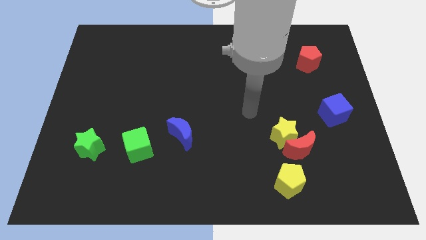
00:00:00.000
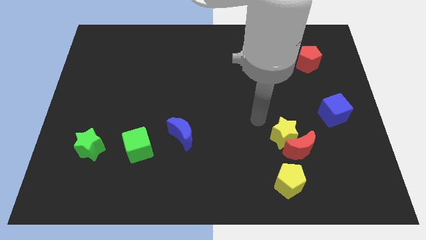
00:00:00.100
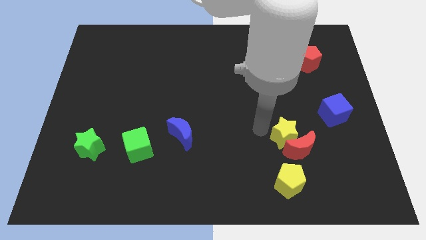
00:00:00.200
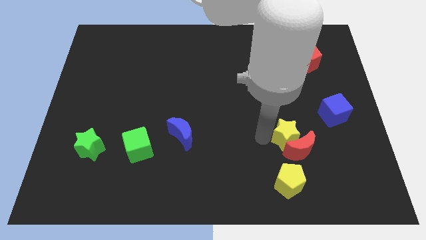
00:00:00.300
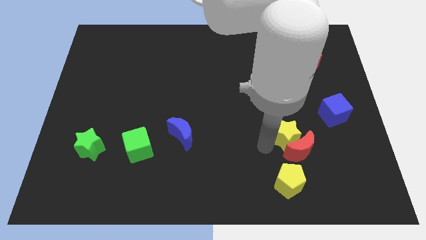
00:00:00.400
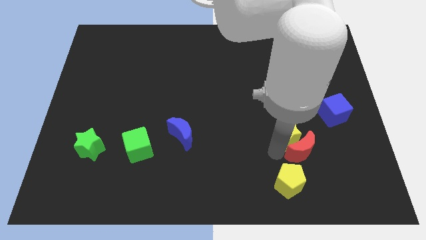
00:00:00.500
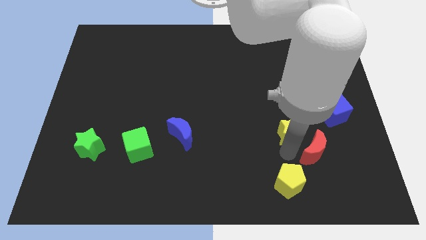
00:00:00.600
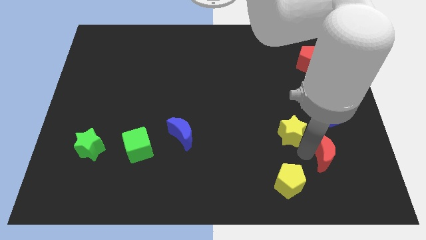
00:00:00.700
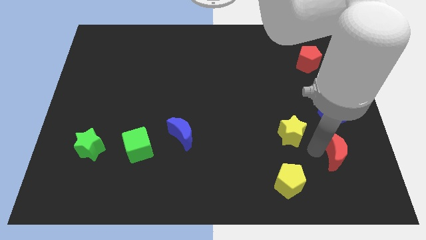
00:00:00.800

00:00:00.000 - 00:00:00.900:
separate the yellow star from the red moon

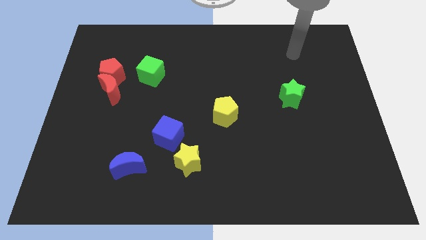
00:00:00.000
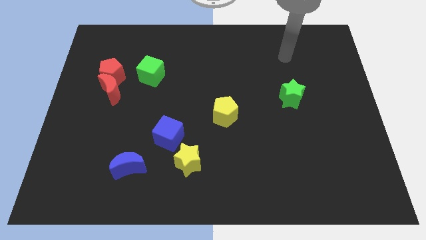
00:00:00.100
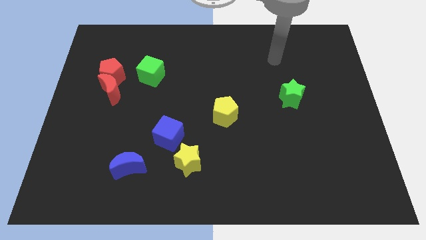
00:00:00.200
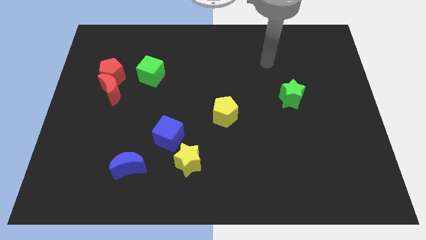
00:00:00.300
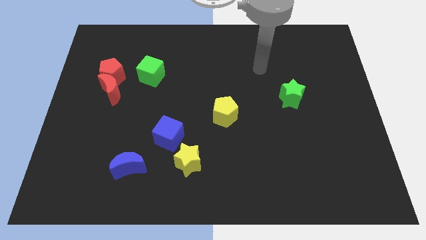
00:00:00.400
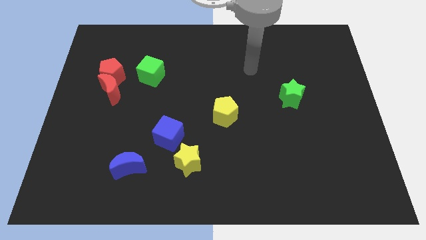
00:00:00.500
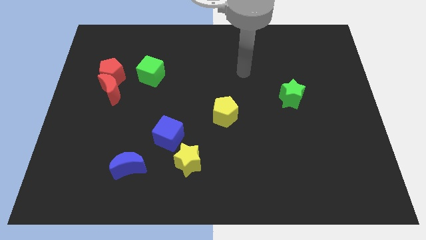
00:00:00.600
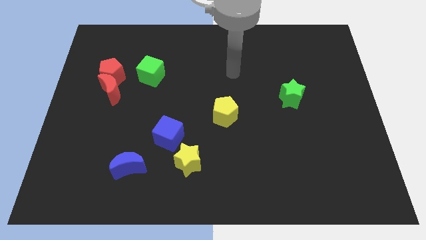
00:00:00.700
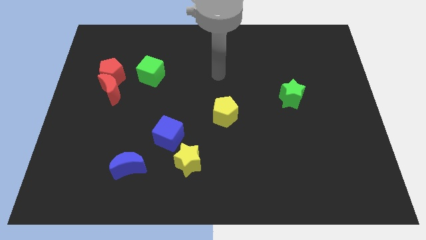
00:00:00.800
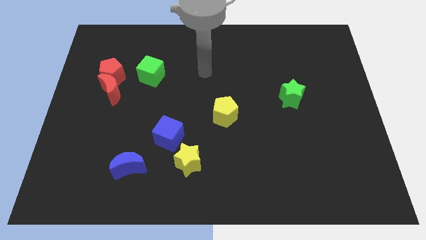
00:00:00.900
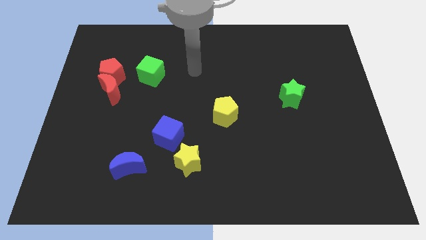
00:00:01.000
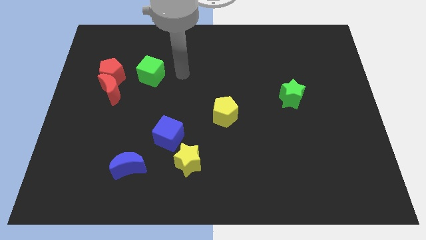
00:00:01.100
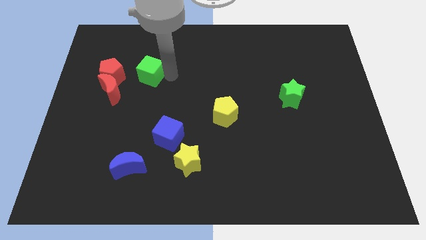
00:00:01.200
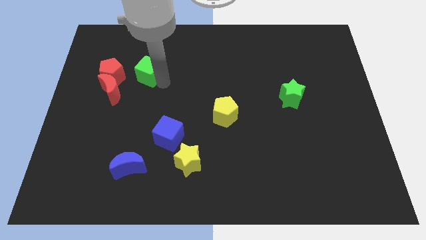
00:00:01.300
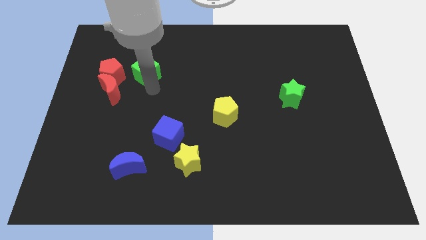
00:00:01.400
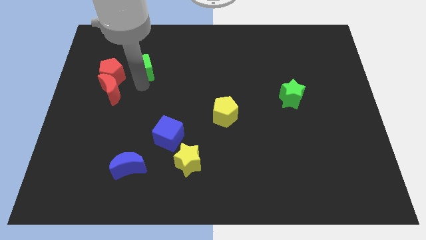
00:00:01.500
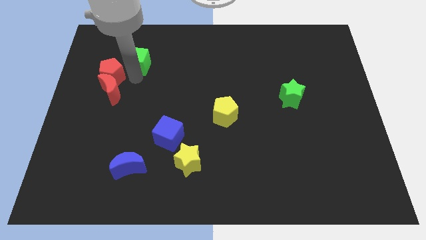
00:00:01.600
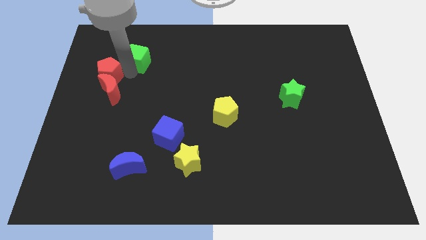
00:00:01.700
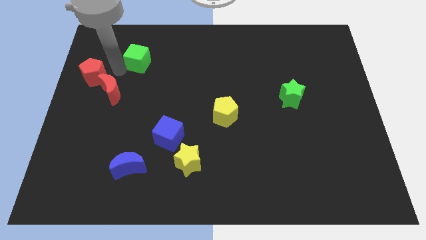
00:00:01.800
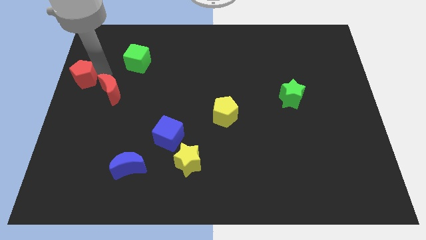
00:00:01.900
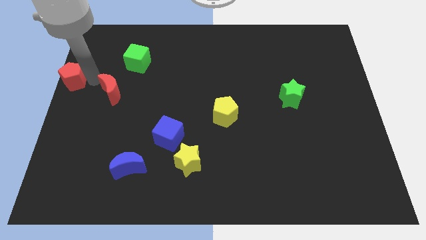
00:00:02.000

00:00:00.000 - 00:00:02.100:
separate the red moon from the red pentagon

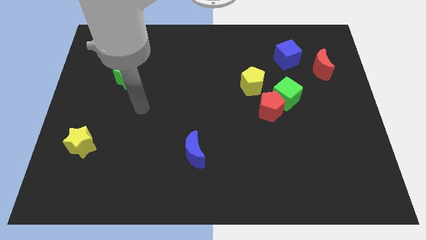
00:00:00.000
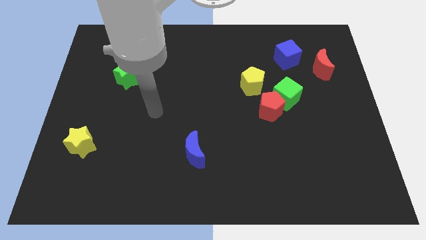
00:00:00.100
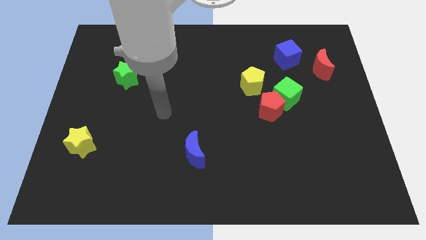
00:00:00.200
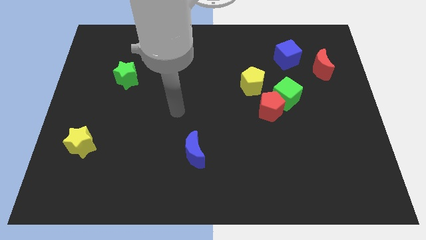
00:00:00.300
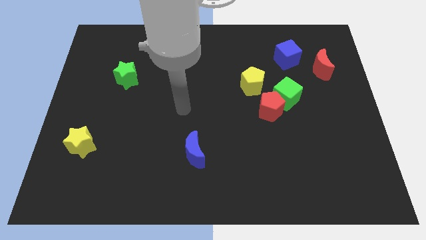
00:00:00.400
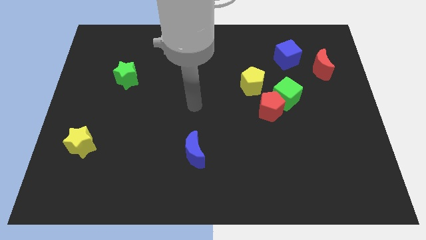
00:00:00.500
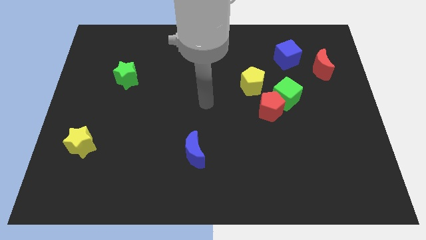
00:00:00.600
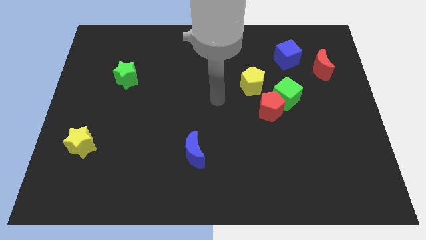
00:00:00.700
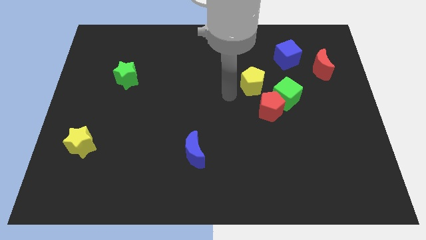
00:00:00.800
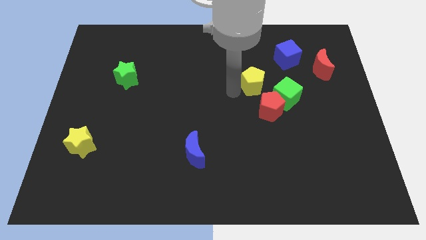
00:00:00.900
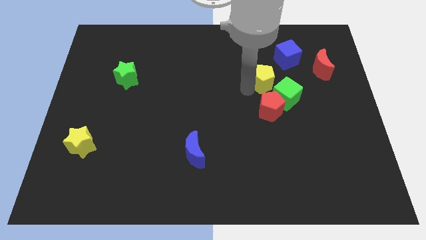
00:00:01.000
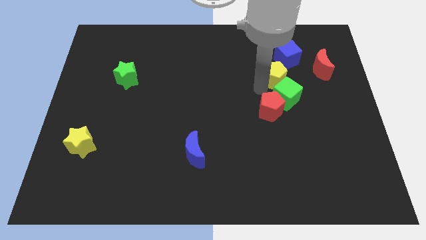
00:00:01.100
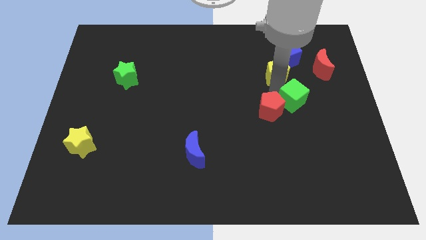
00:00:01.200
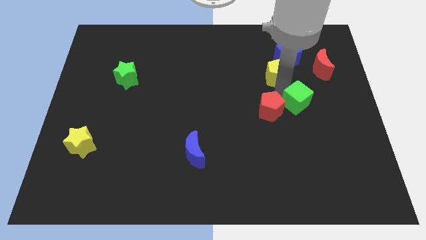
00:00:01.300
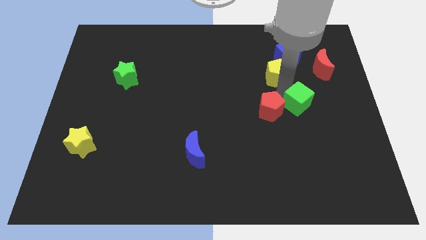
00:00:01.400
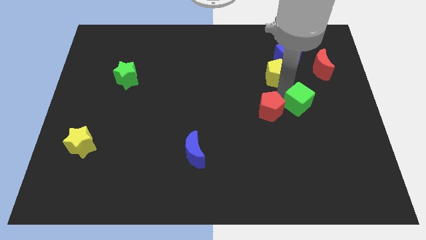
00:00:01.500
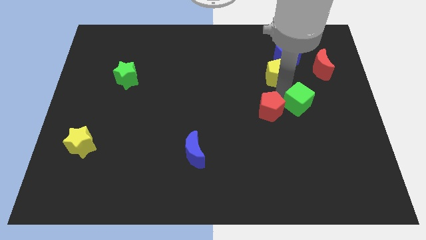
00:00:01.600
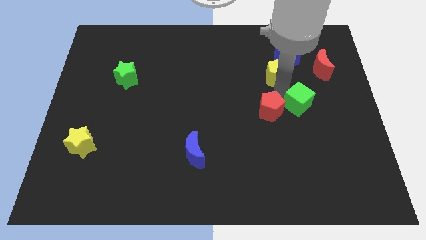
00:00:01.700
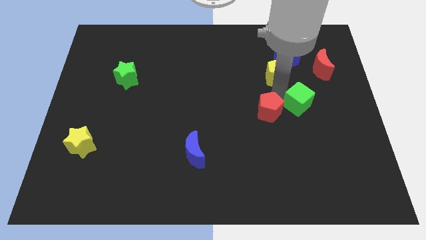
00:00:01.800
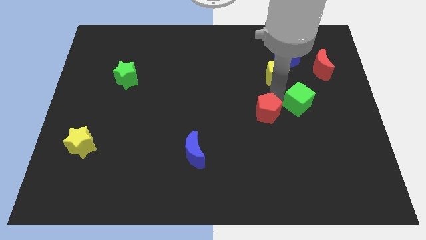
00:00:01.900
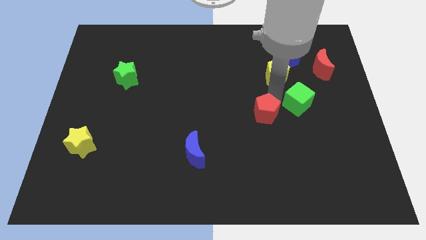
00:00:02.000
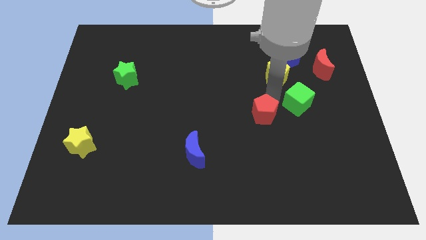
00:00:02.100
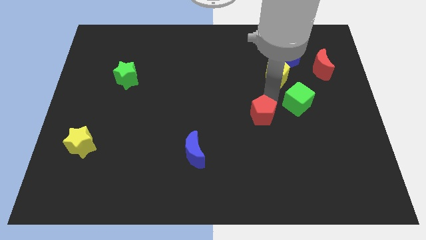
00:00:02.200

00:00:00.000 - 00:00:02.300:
pull the red pentagon apart from the green cube and yellow pentagon

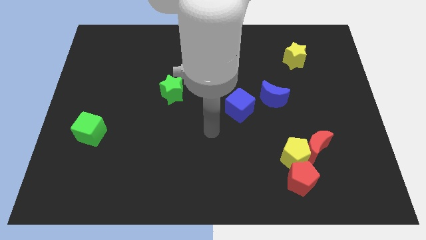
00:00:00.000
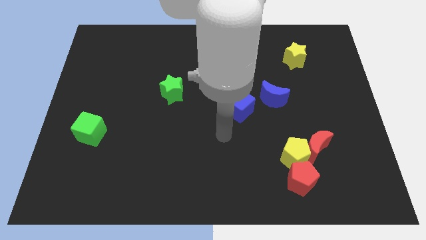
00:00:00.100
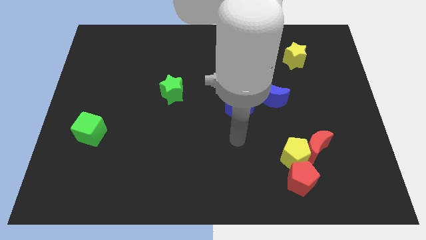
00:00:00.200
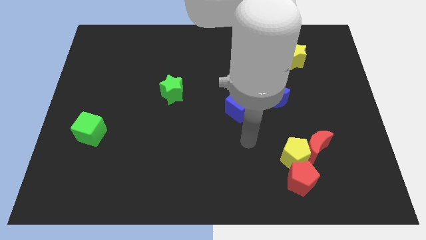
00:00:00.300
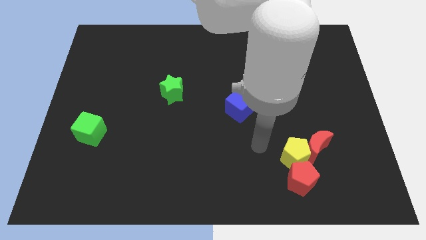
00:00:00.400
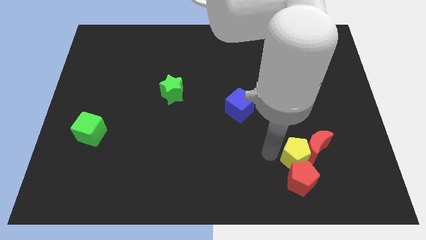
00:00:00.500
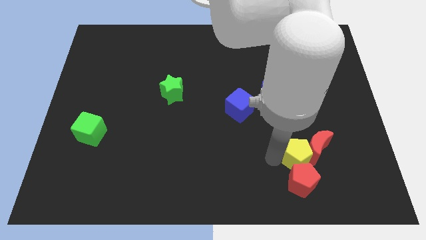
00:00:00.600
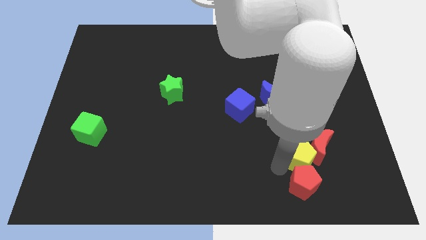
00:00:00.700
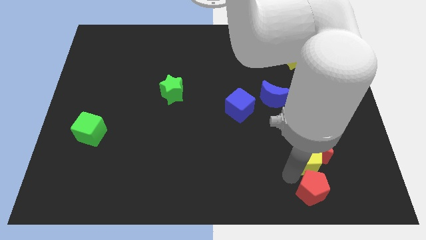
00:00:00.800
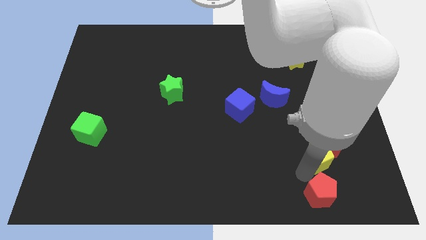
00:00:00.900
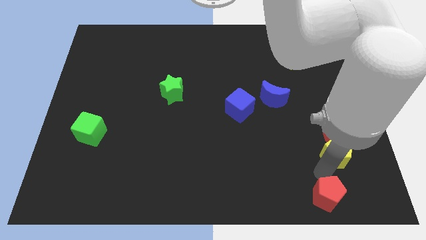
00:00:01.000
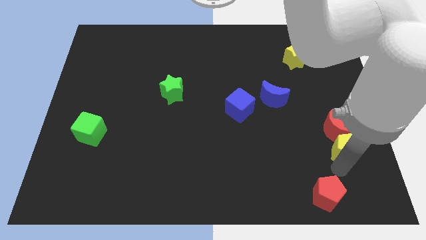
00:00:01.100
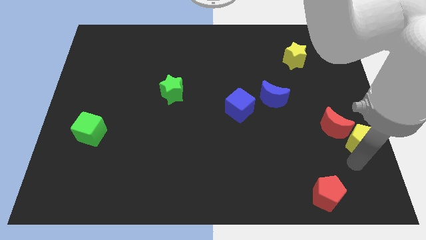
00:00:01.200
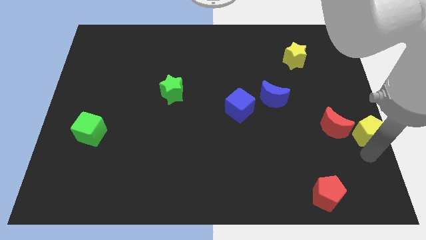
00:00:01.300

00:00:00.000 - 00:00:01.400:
pull the yellow pentagon apart from the red moon and red pentagon

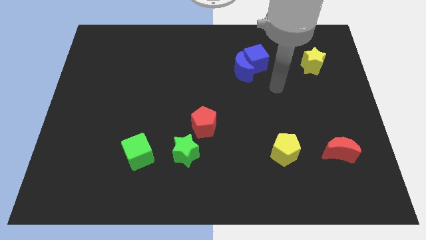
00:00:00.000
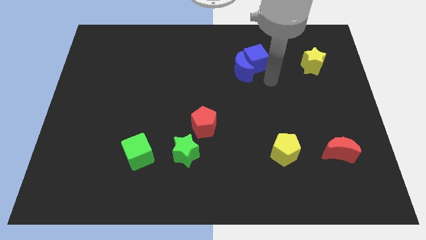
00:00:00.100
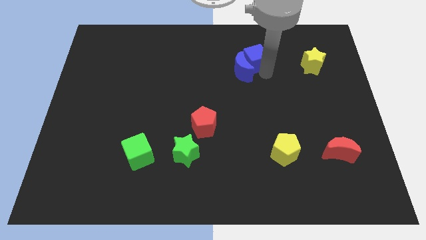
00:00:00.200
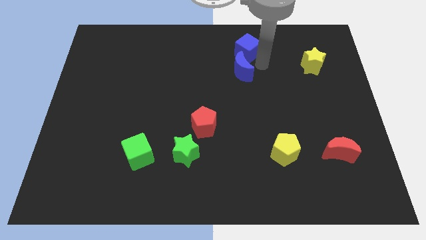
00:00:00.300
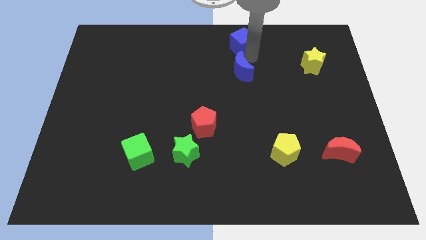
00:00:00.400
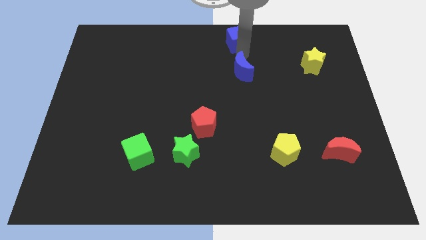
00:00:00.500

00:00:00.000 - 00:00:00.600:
move the blue moon away from the blue cube

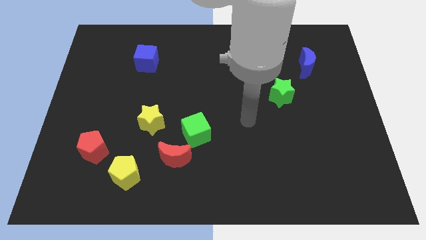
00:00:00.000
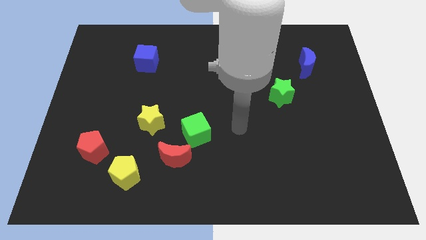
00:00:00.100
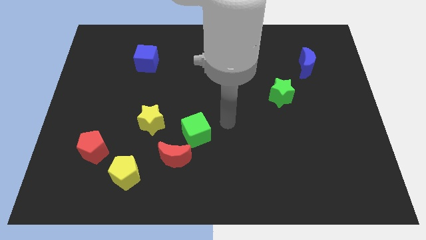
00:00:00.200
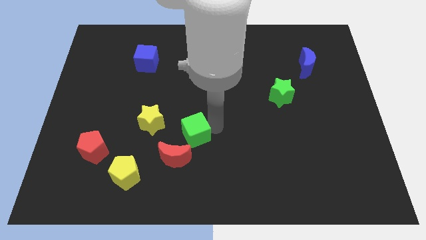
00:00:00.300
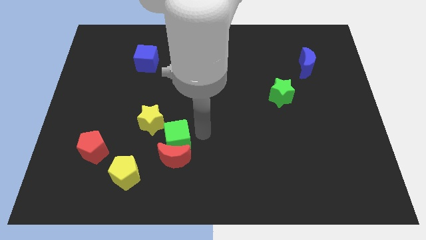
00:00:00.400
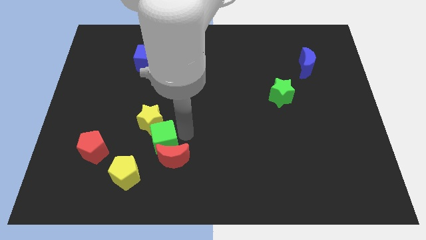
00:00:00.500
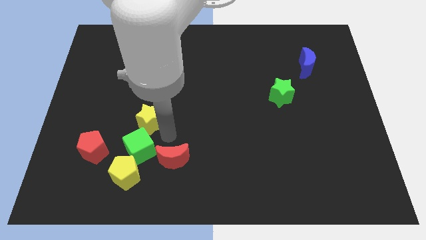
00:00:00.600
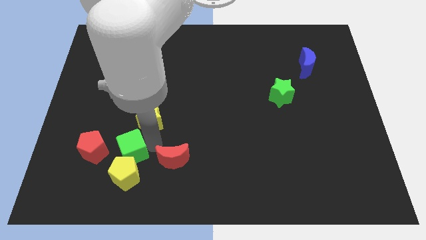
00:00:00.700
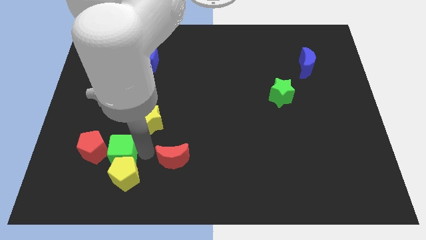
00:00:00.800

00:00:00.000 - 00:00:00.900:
move the red moon away from the green cube

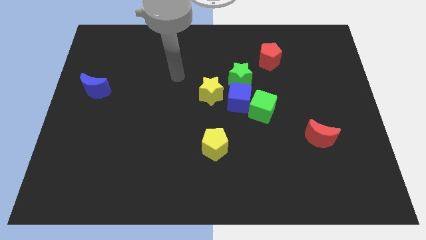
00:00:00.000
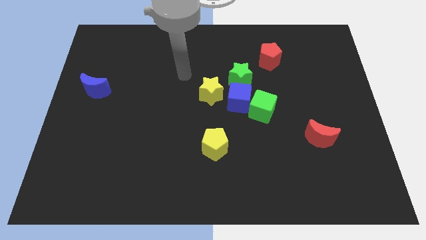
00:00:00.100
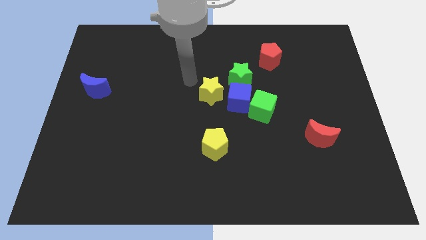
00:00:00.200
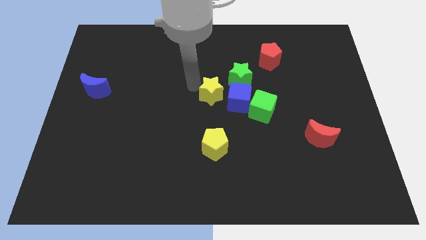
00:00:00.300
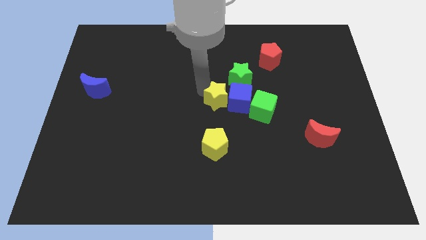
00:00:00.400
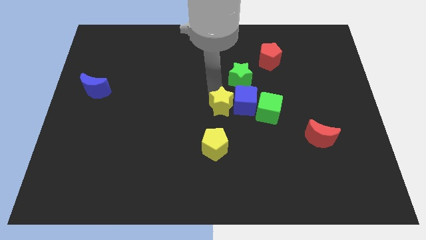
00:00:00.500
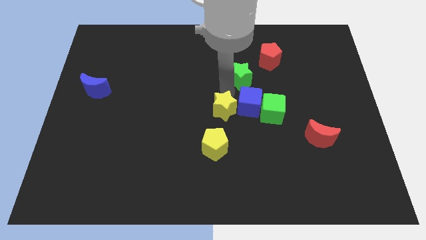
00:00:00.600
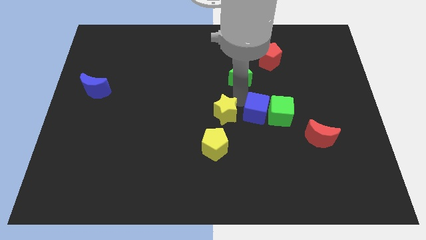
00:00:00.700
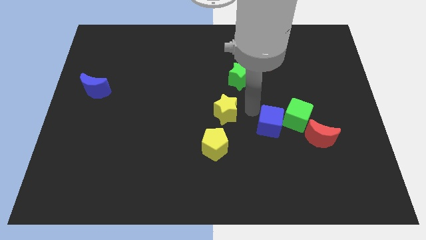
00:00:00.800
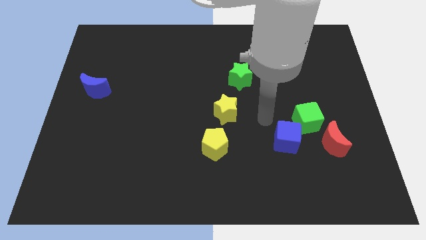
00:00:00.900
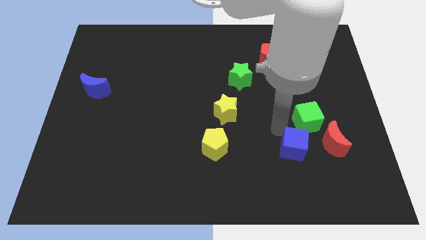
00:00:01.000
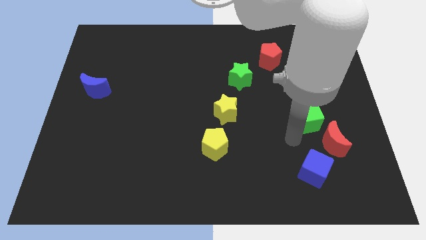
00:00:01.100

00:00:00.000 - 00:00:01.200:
pull the green cube apart from the blue cube

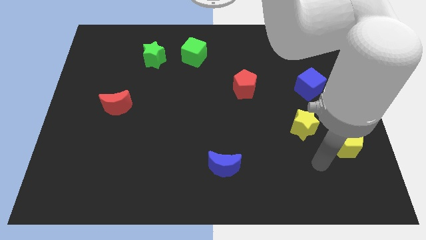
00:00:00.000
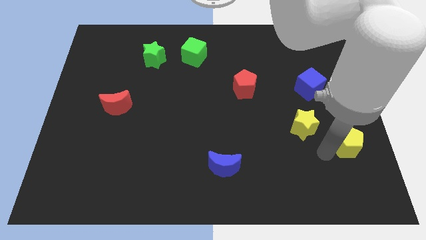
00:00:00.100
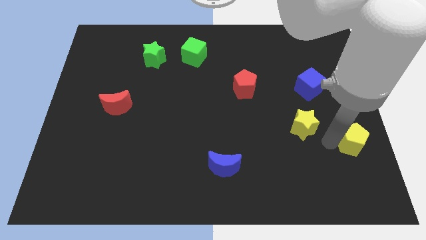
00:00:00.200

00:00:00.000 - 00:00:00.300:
separate the yellow star from the yellow pentagon
